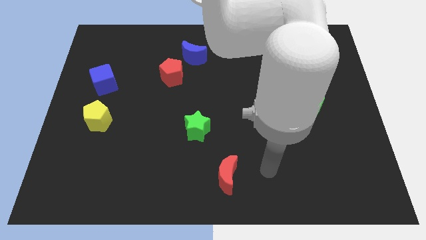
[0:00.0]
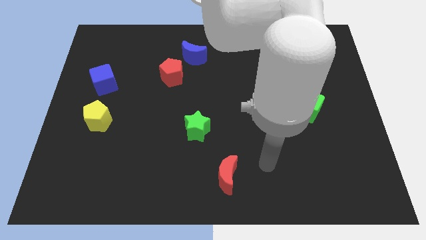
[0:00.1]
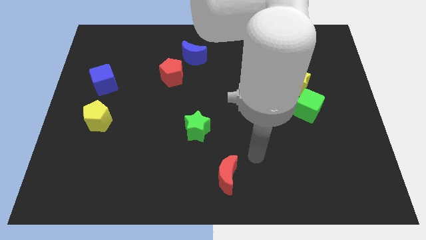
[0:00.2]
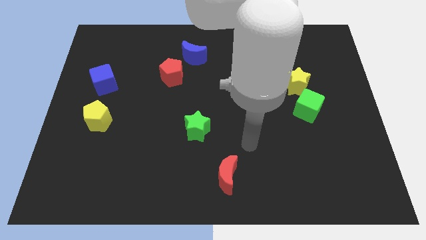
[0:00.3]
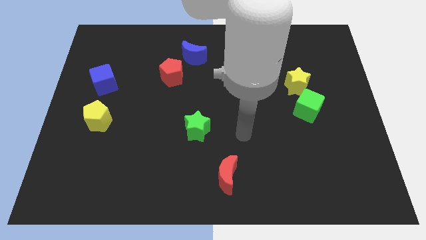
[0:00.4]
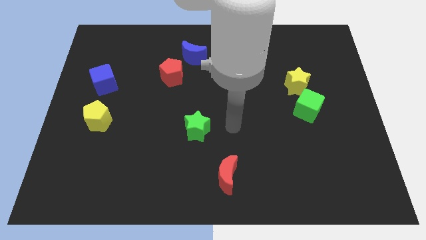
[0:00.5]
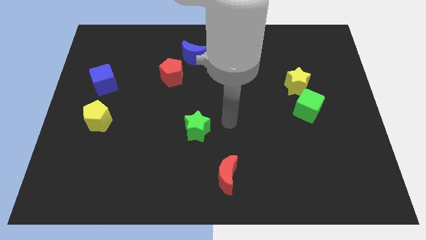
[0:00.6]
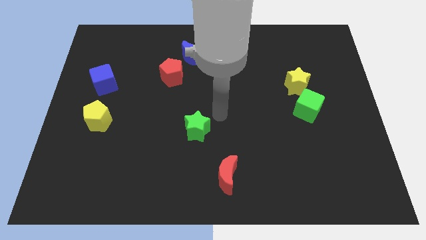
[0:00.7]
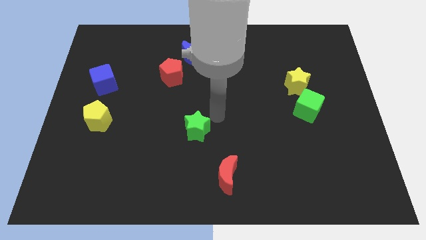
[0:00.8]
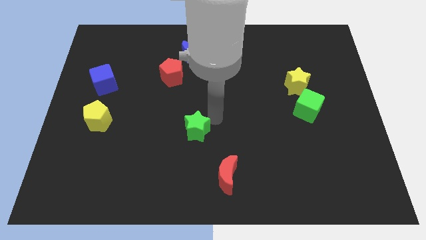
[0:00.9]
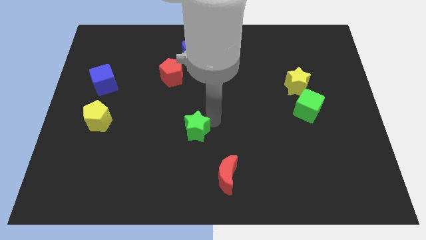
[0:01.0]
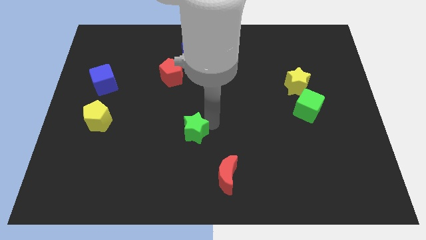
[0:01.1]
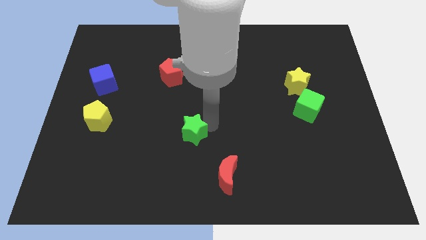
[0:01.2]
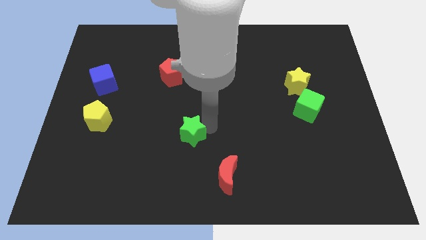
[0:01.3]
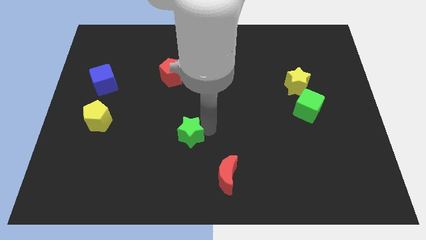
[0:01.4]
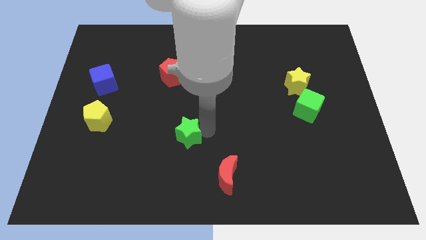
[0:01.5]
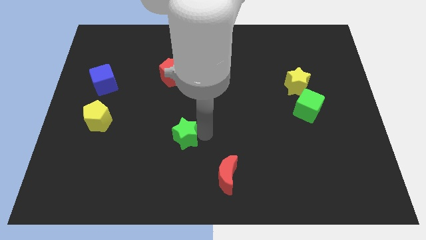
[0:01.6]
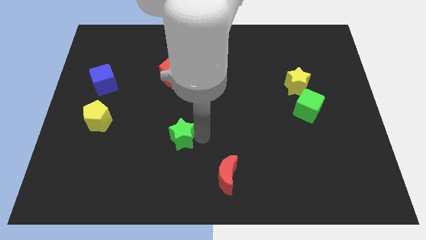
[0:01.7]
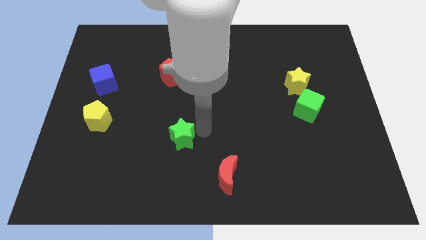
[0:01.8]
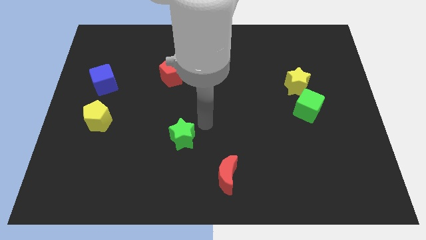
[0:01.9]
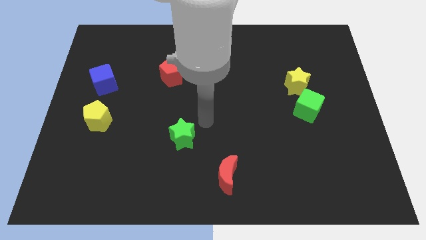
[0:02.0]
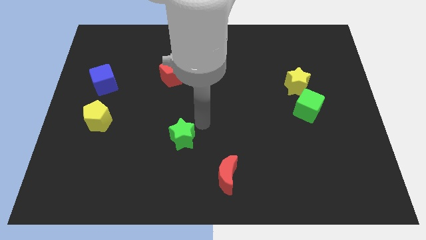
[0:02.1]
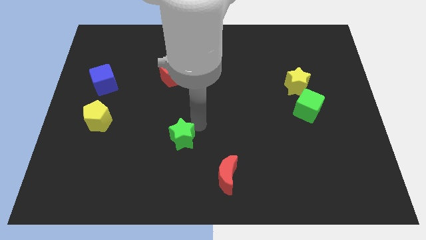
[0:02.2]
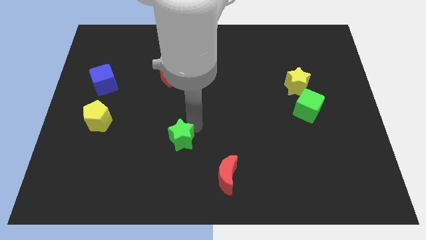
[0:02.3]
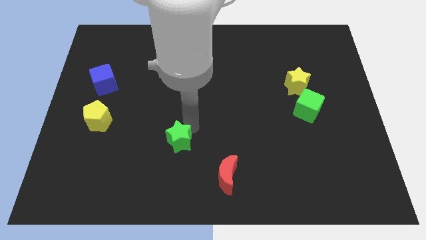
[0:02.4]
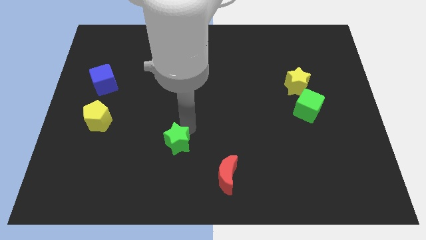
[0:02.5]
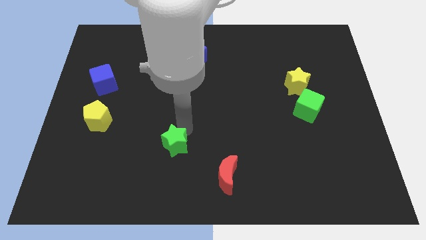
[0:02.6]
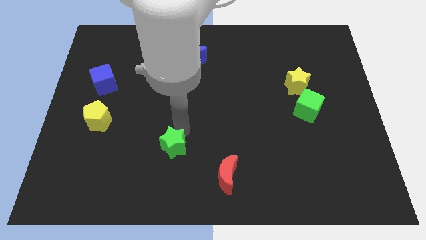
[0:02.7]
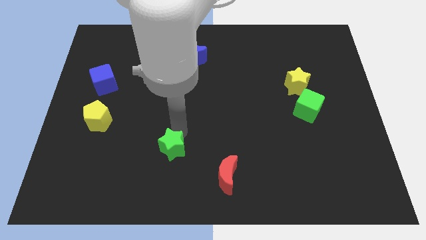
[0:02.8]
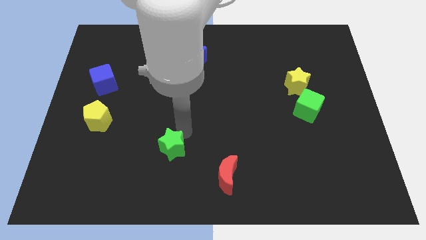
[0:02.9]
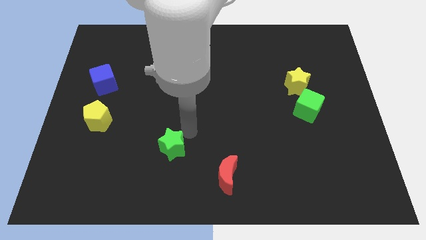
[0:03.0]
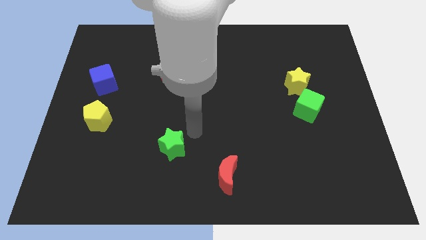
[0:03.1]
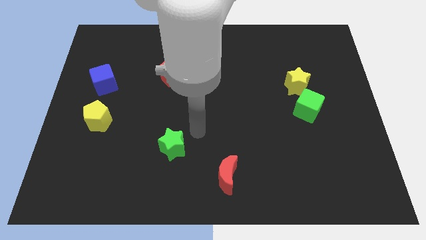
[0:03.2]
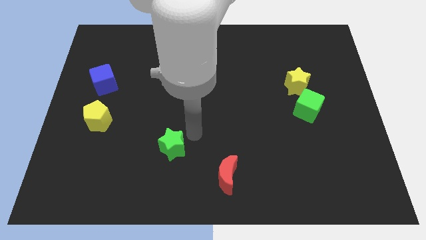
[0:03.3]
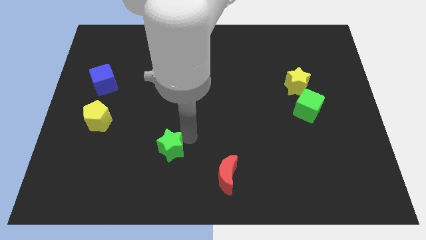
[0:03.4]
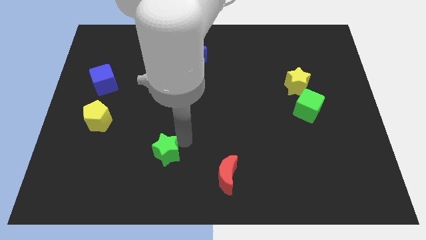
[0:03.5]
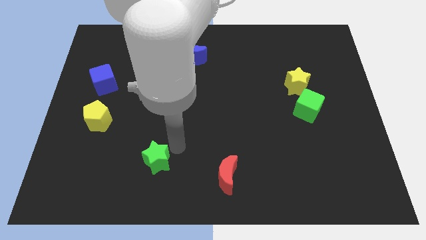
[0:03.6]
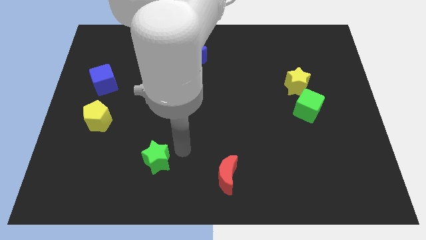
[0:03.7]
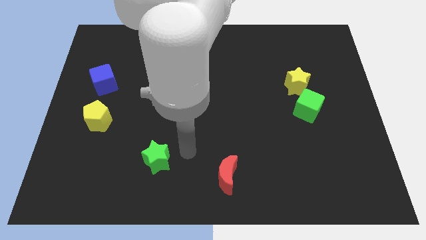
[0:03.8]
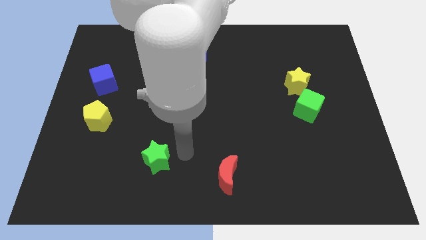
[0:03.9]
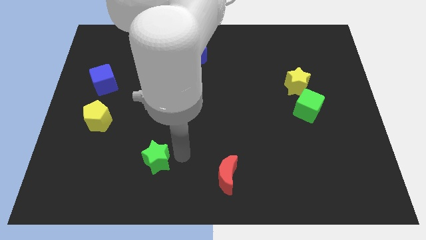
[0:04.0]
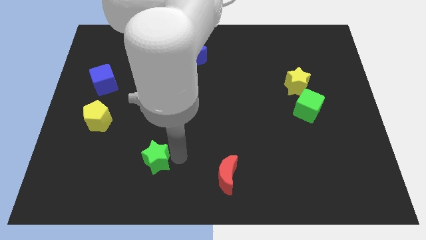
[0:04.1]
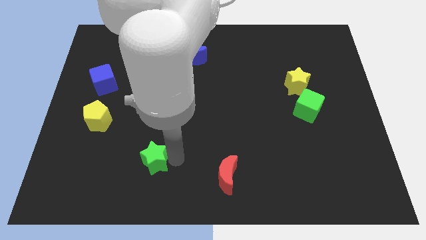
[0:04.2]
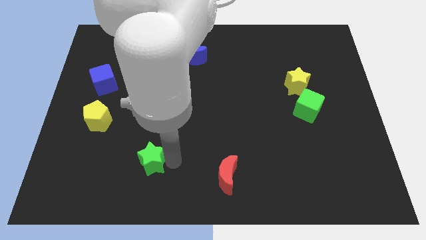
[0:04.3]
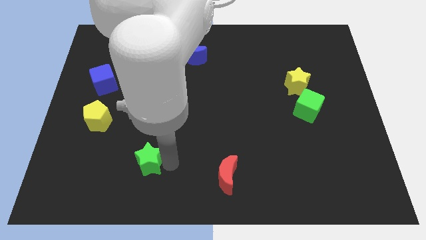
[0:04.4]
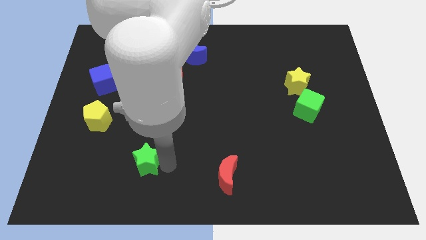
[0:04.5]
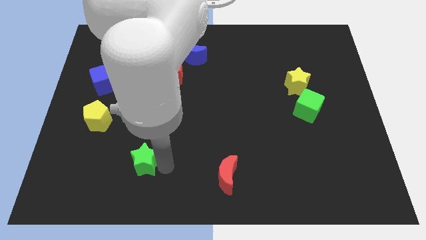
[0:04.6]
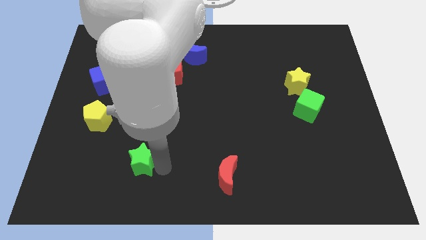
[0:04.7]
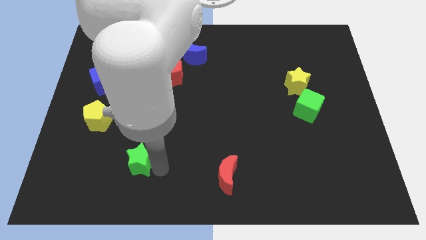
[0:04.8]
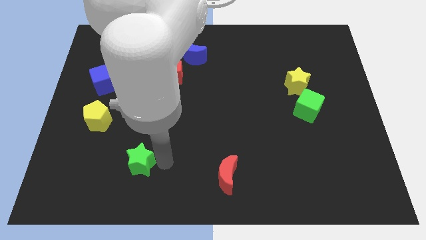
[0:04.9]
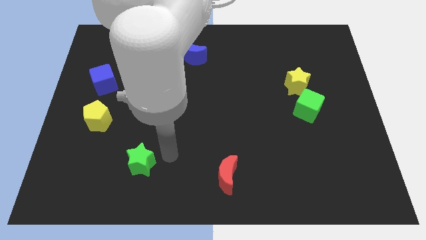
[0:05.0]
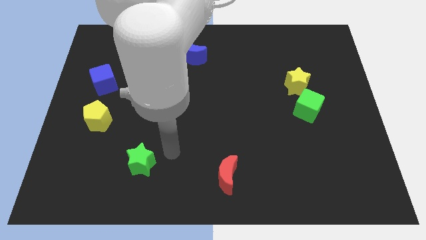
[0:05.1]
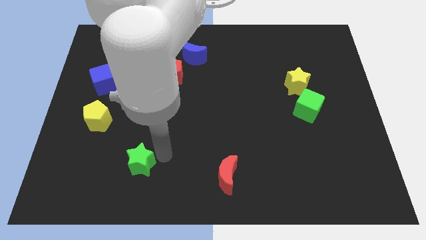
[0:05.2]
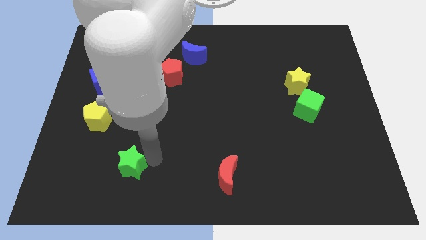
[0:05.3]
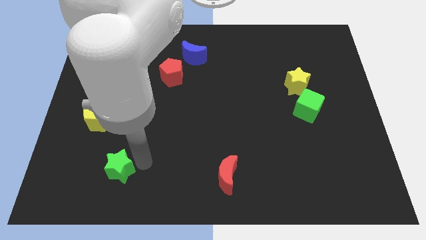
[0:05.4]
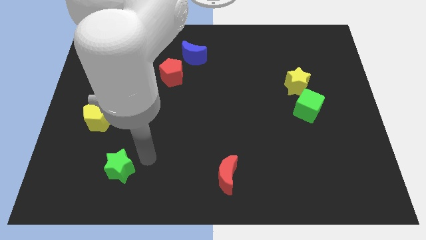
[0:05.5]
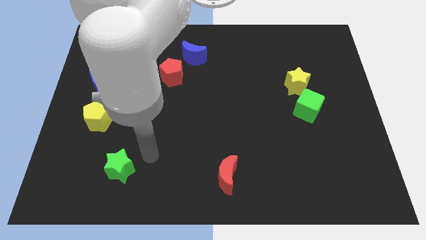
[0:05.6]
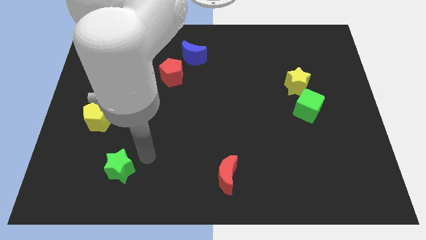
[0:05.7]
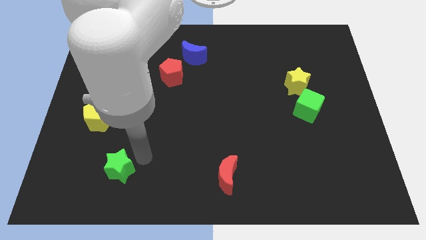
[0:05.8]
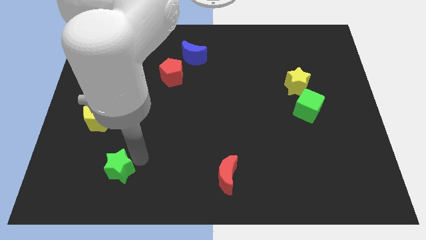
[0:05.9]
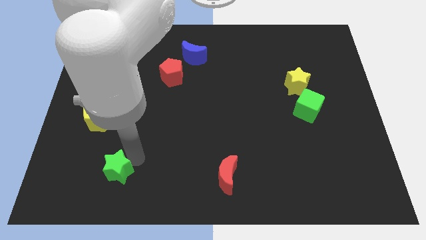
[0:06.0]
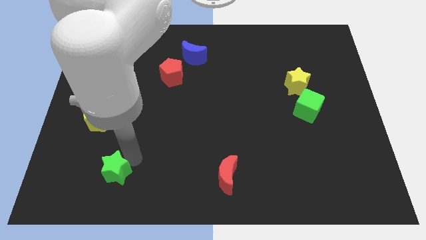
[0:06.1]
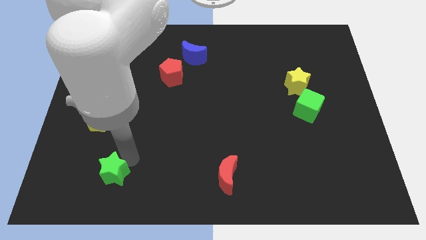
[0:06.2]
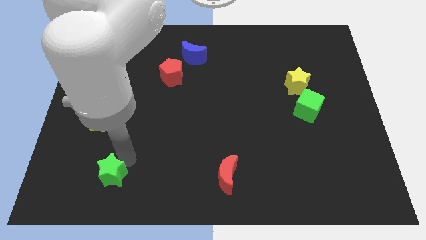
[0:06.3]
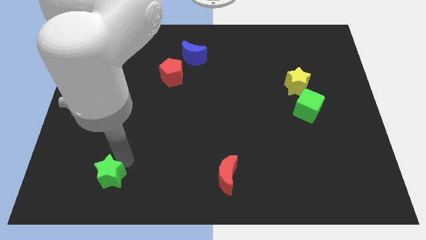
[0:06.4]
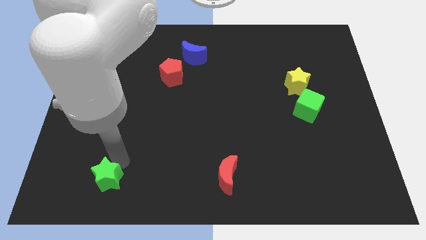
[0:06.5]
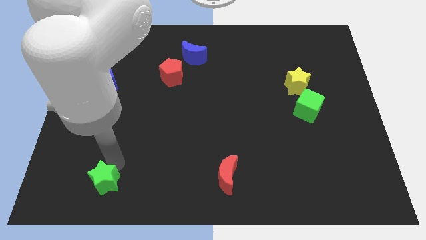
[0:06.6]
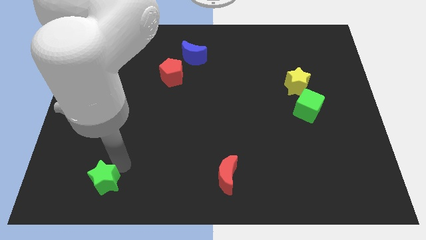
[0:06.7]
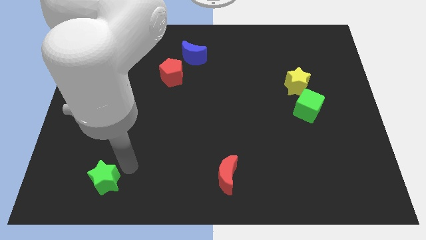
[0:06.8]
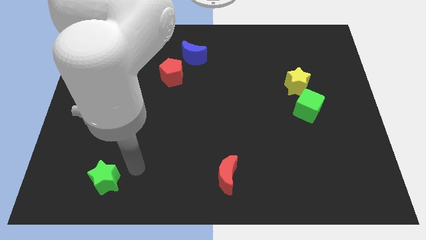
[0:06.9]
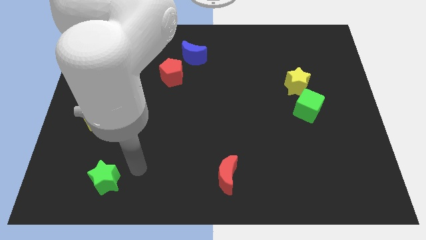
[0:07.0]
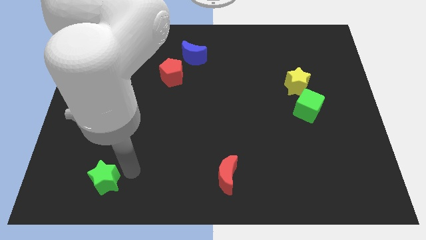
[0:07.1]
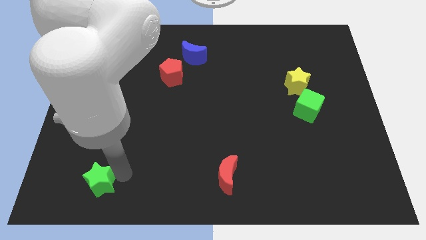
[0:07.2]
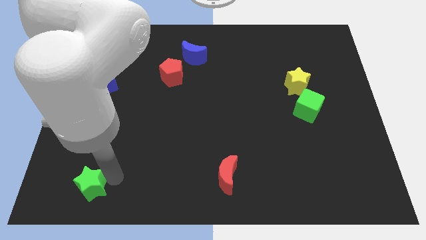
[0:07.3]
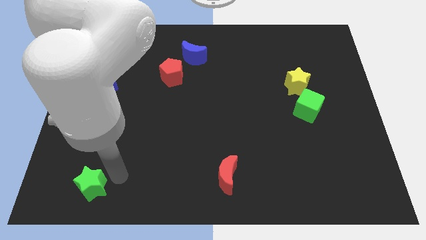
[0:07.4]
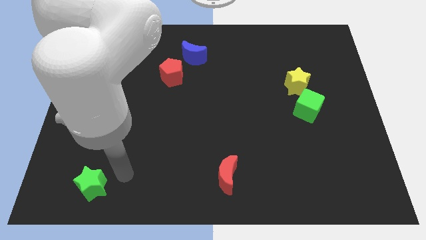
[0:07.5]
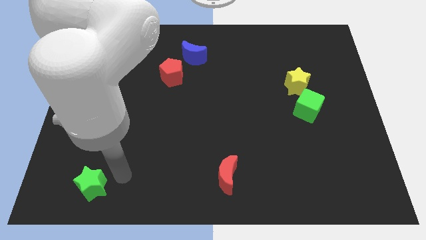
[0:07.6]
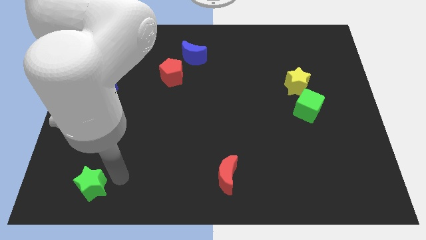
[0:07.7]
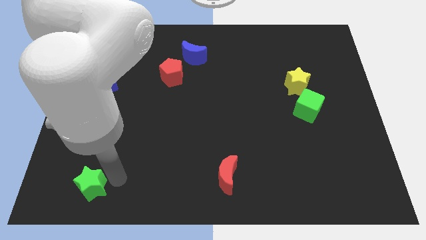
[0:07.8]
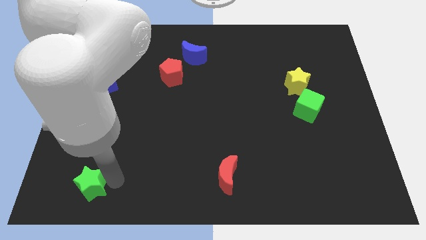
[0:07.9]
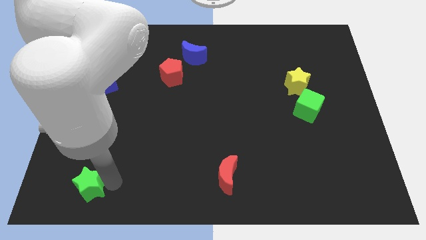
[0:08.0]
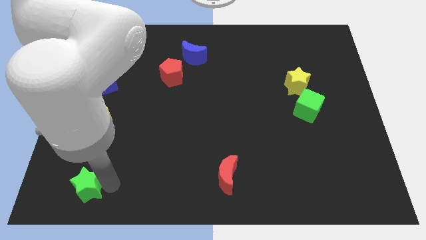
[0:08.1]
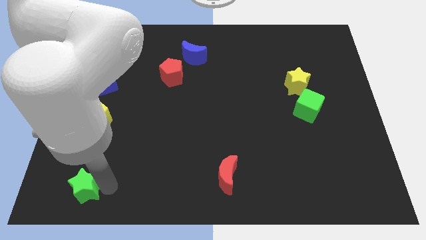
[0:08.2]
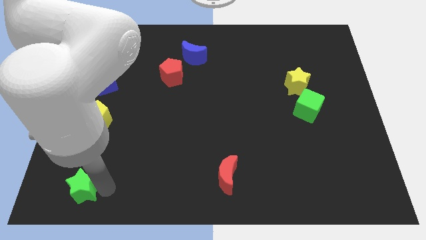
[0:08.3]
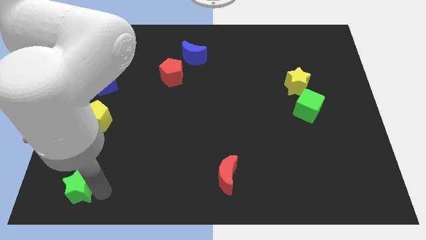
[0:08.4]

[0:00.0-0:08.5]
move the green star to the lower left corner
